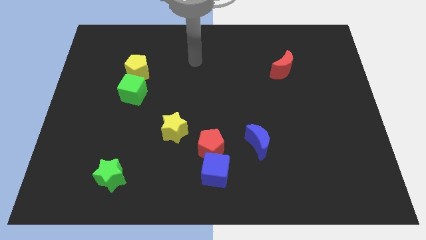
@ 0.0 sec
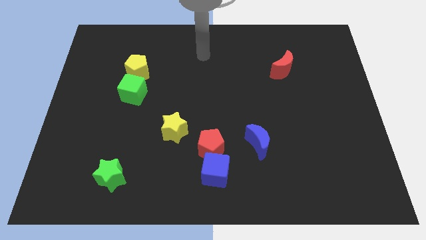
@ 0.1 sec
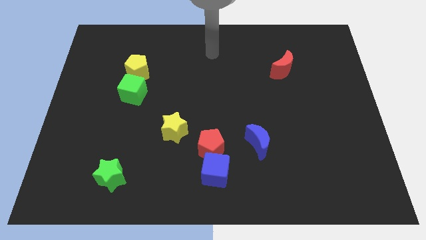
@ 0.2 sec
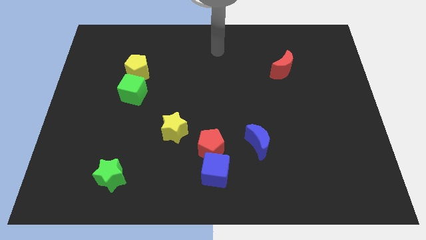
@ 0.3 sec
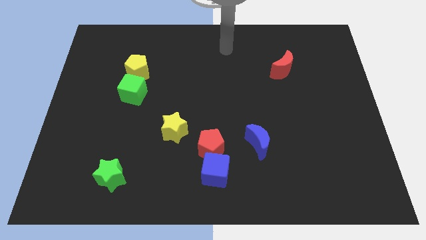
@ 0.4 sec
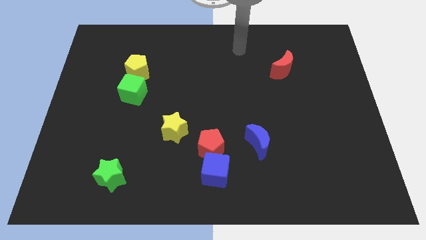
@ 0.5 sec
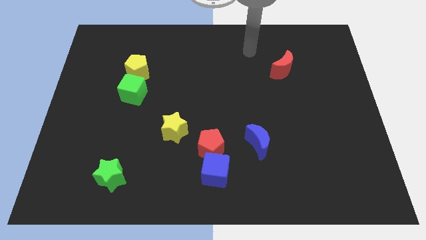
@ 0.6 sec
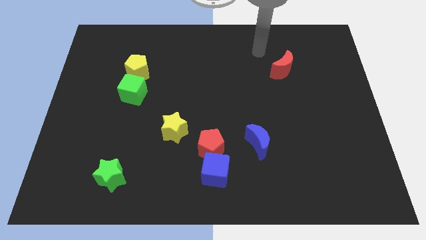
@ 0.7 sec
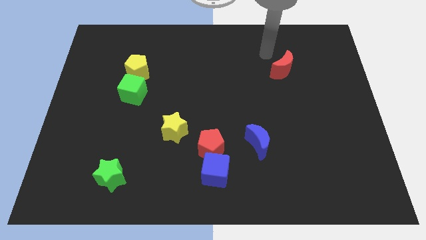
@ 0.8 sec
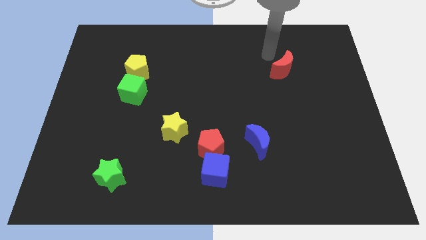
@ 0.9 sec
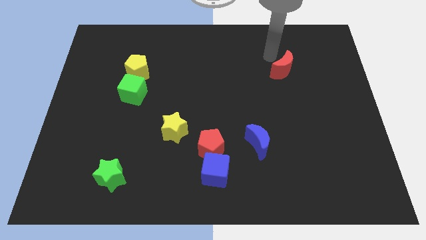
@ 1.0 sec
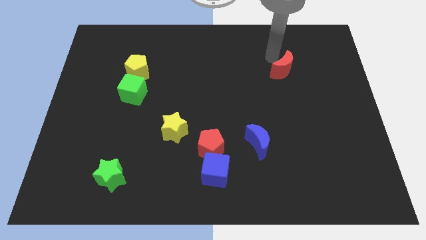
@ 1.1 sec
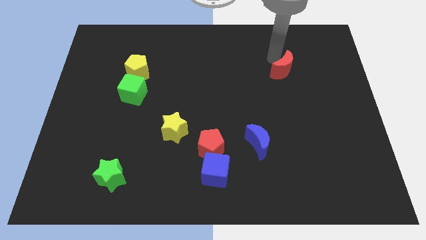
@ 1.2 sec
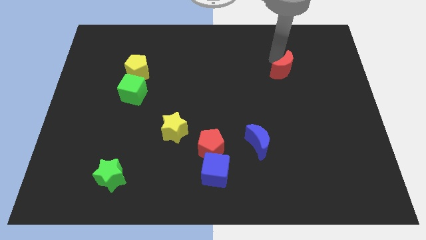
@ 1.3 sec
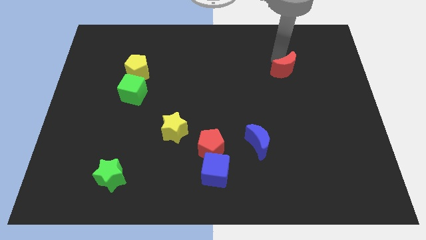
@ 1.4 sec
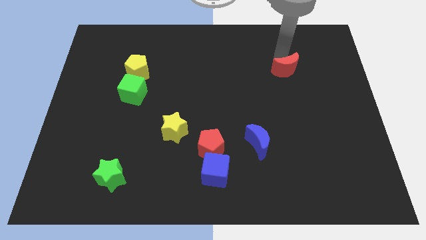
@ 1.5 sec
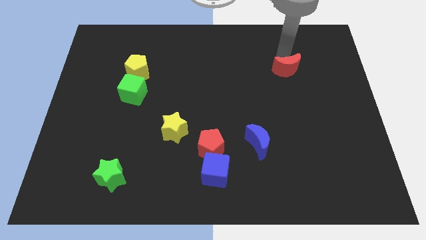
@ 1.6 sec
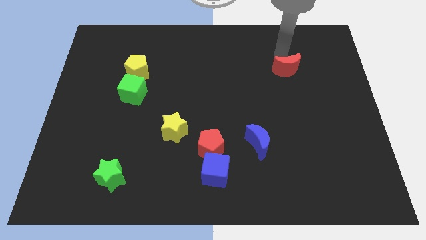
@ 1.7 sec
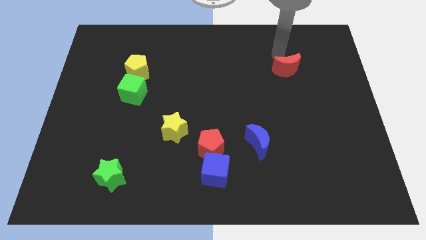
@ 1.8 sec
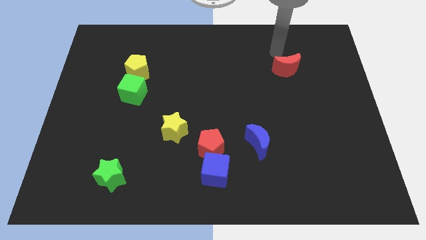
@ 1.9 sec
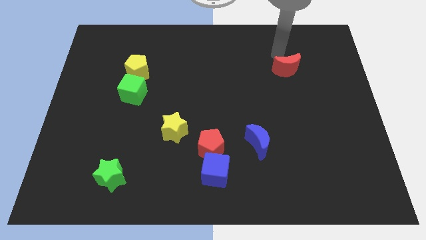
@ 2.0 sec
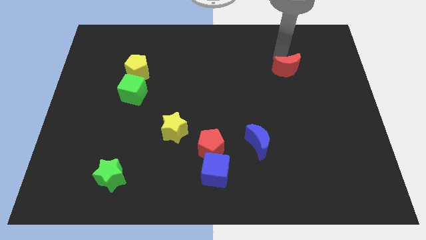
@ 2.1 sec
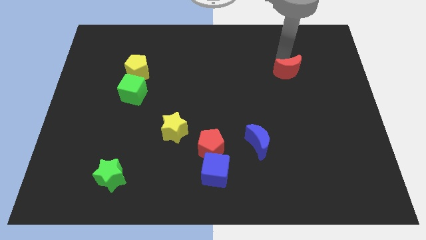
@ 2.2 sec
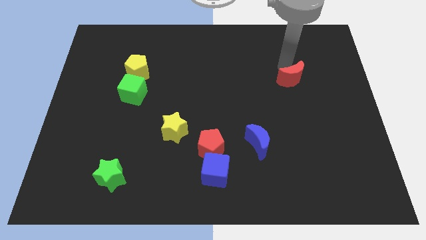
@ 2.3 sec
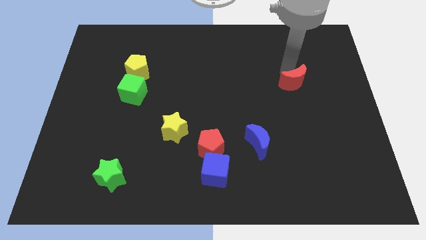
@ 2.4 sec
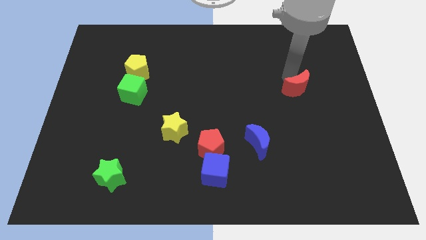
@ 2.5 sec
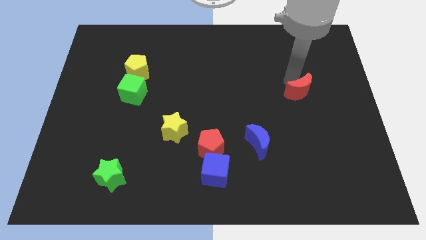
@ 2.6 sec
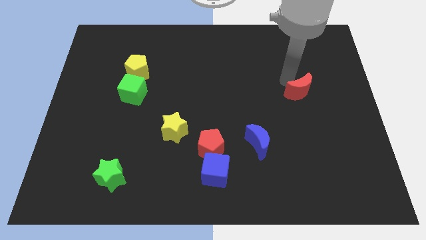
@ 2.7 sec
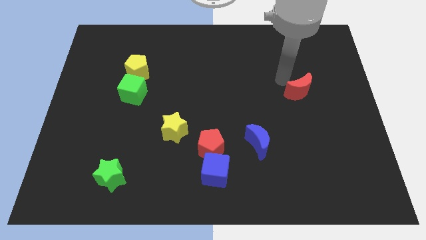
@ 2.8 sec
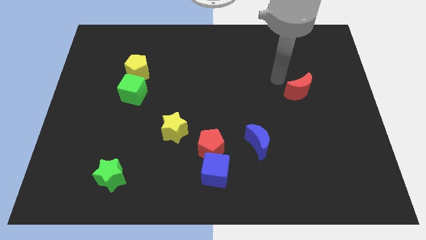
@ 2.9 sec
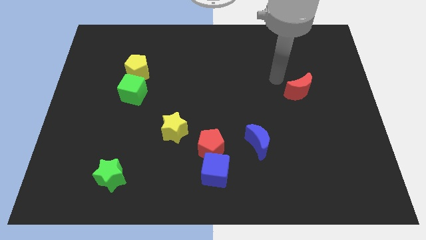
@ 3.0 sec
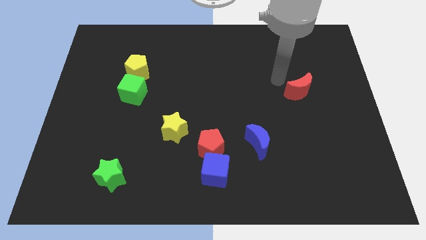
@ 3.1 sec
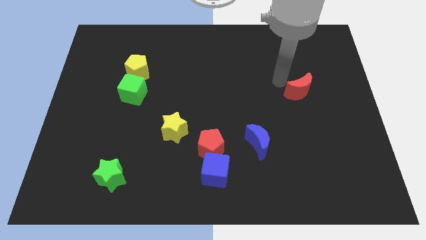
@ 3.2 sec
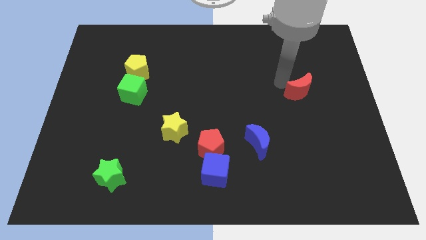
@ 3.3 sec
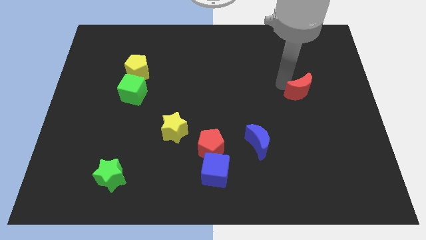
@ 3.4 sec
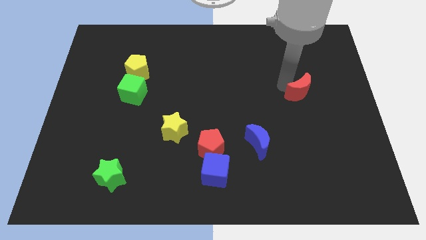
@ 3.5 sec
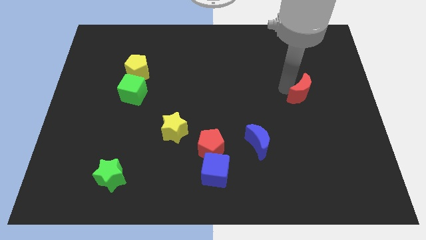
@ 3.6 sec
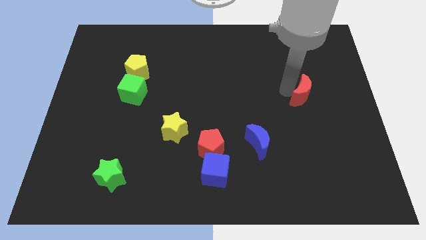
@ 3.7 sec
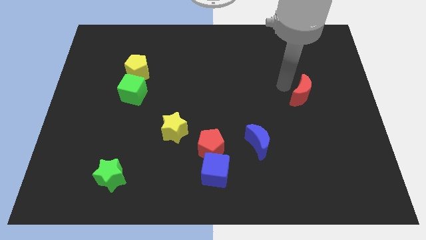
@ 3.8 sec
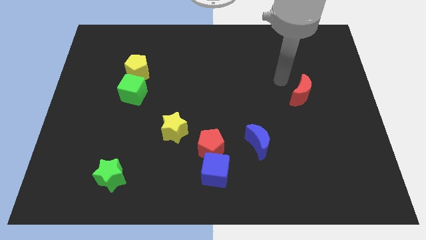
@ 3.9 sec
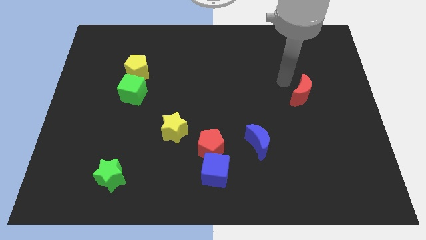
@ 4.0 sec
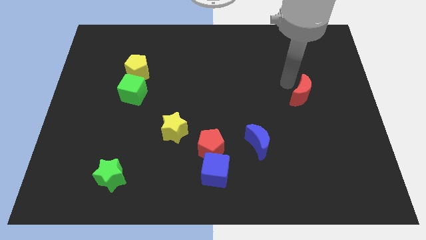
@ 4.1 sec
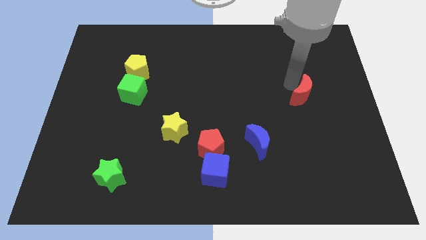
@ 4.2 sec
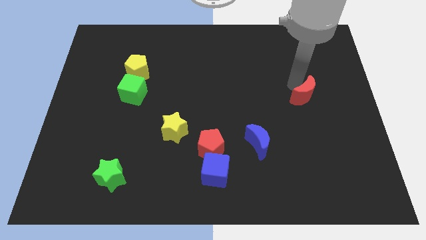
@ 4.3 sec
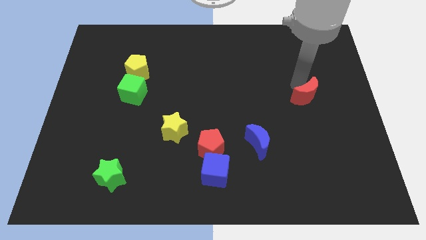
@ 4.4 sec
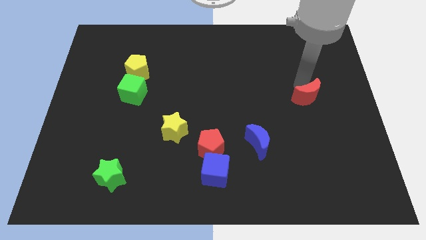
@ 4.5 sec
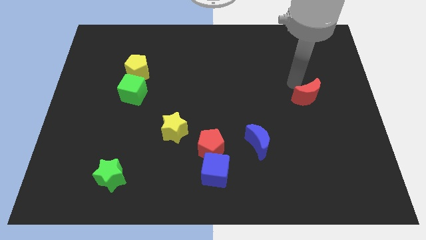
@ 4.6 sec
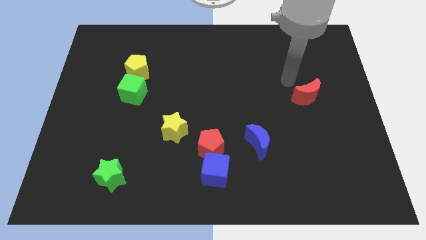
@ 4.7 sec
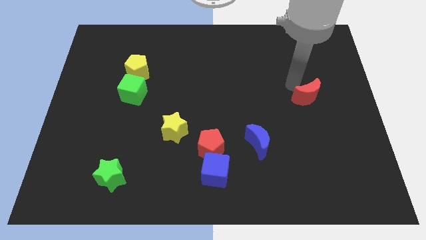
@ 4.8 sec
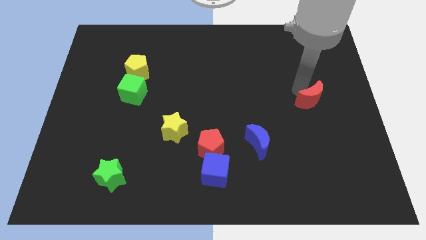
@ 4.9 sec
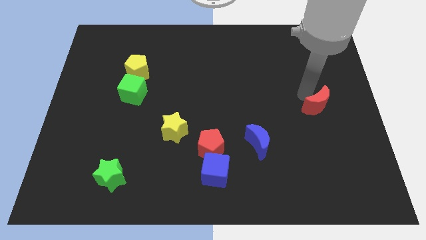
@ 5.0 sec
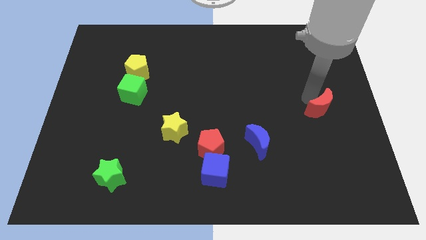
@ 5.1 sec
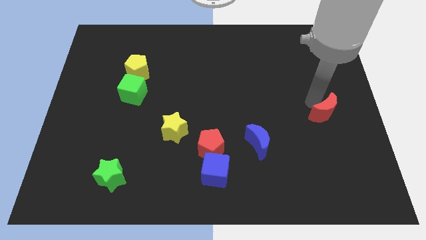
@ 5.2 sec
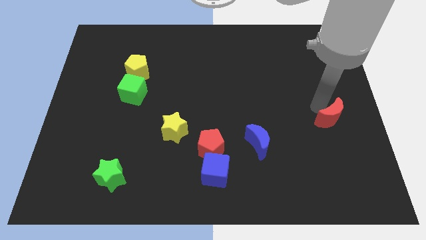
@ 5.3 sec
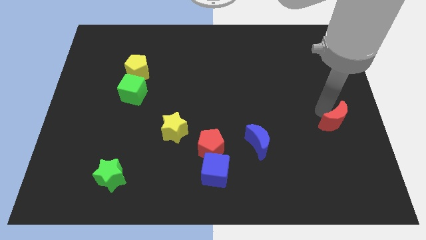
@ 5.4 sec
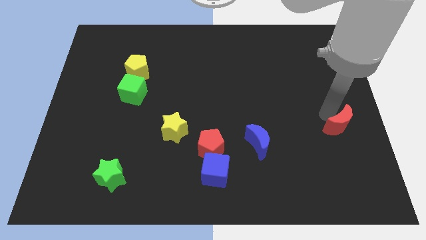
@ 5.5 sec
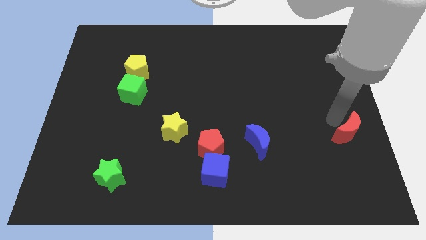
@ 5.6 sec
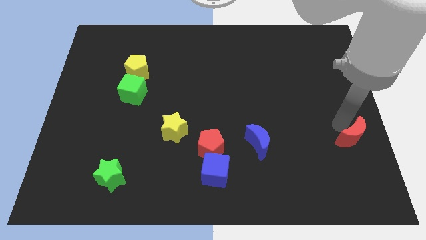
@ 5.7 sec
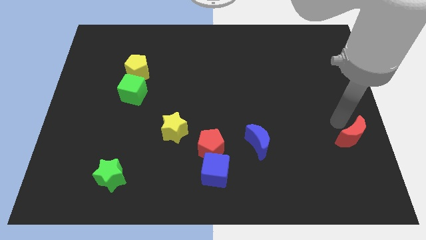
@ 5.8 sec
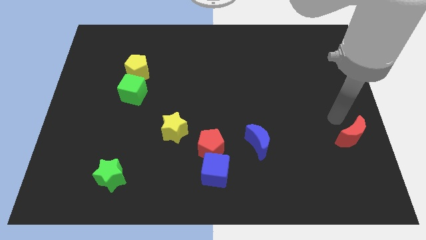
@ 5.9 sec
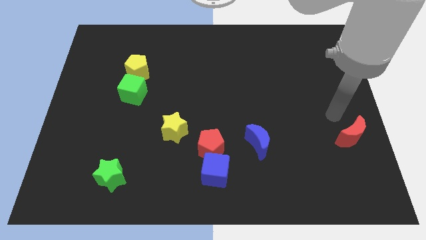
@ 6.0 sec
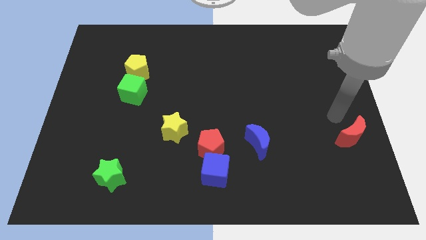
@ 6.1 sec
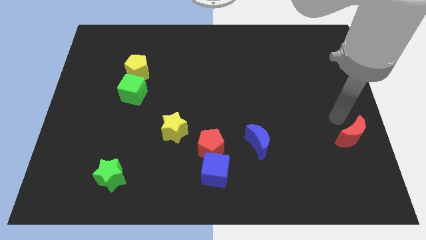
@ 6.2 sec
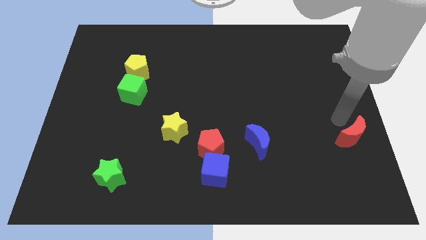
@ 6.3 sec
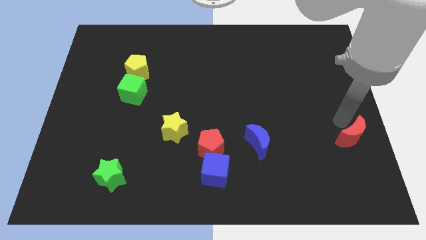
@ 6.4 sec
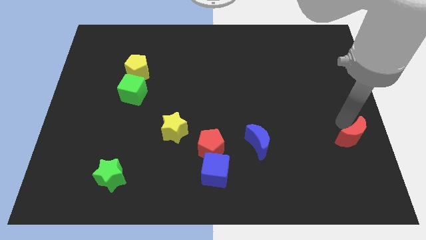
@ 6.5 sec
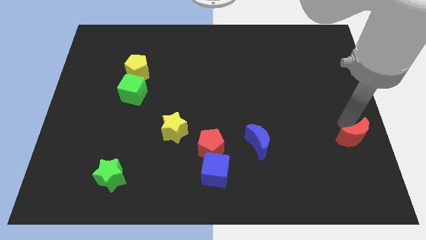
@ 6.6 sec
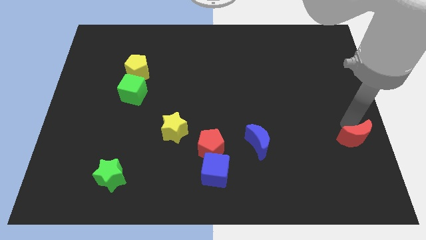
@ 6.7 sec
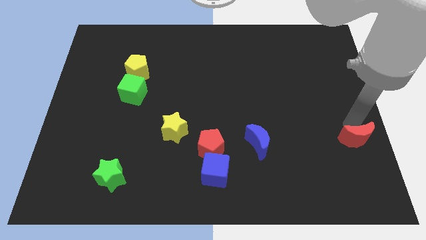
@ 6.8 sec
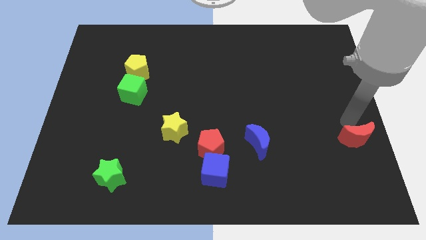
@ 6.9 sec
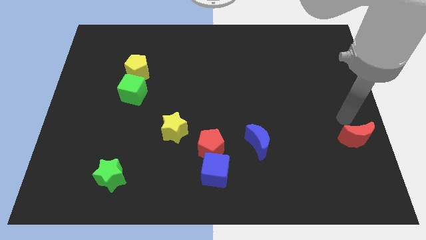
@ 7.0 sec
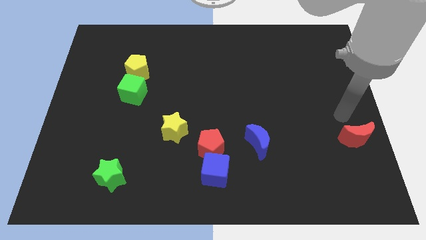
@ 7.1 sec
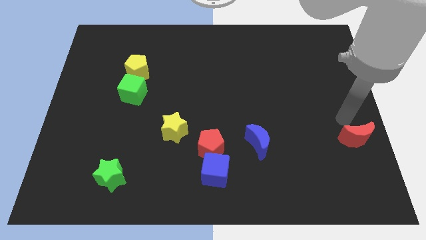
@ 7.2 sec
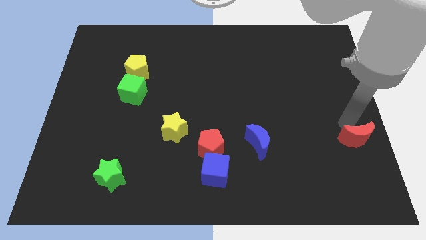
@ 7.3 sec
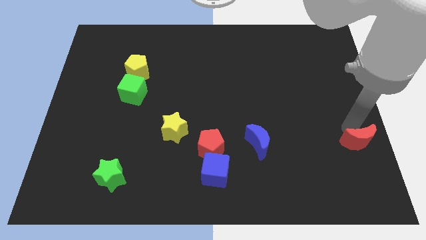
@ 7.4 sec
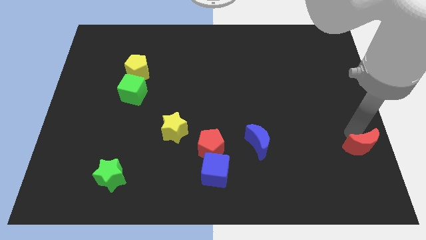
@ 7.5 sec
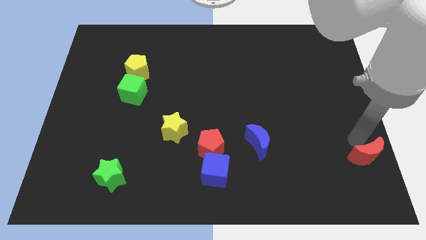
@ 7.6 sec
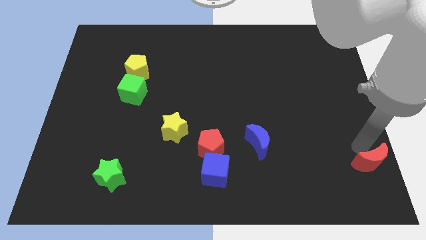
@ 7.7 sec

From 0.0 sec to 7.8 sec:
move the red moon to the bottom right
